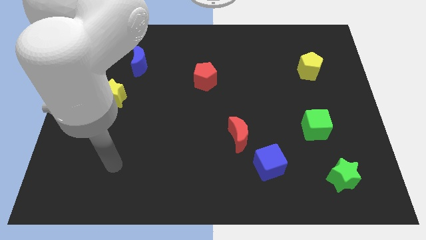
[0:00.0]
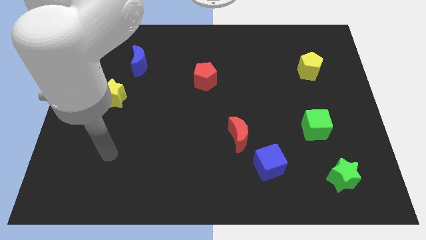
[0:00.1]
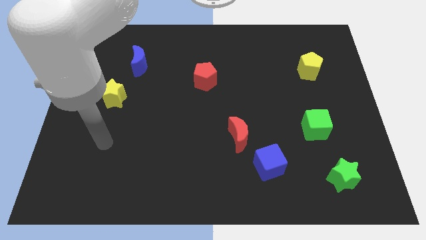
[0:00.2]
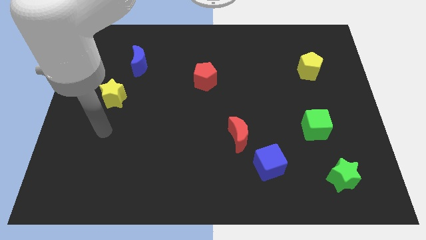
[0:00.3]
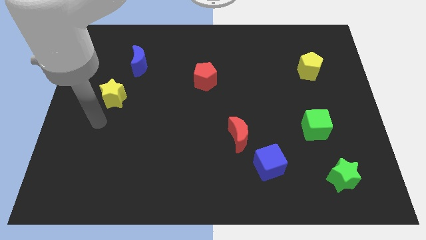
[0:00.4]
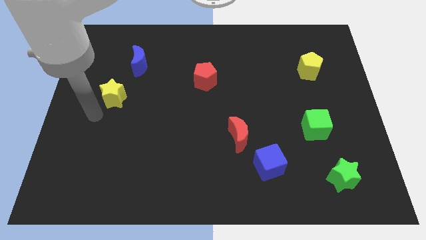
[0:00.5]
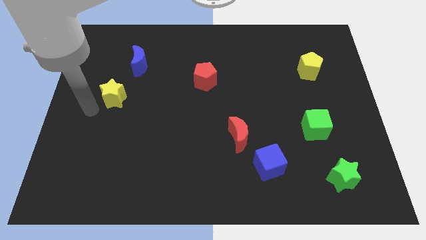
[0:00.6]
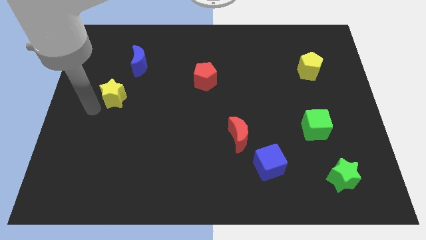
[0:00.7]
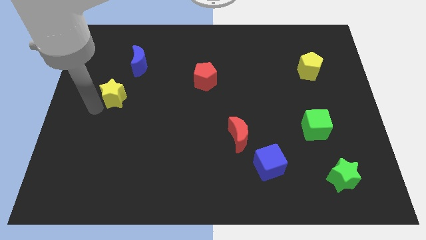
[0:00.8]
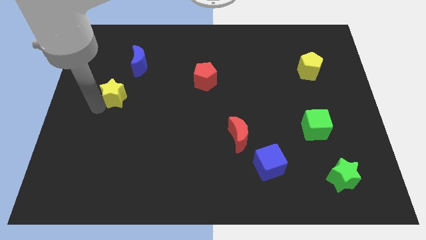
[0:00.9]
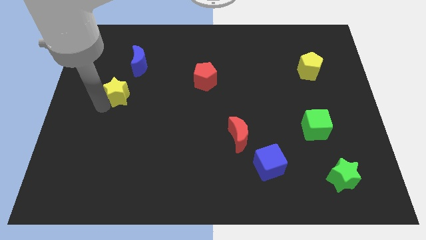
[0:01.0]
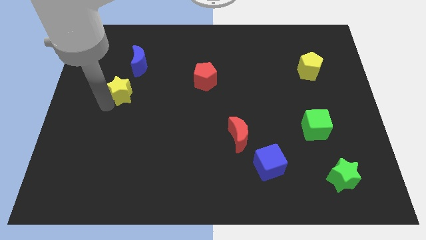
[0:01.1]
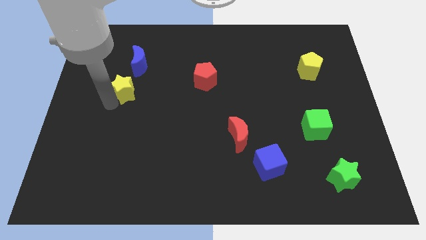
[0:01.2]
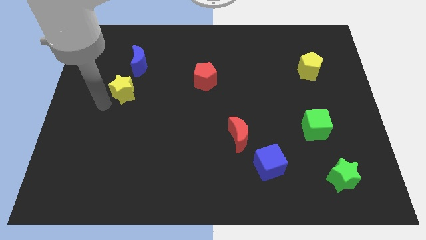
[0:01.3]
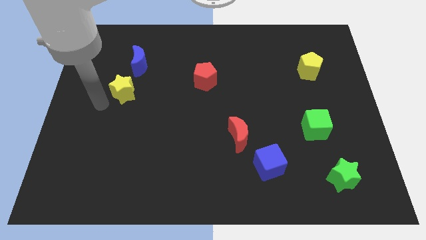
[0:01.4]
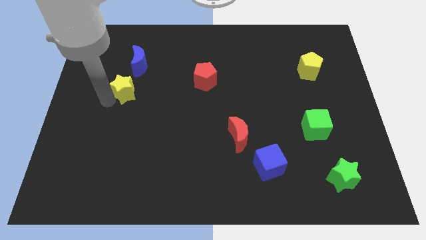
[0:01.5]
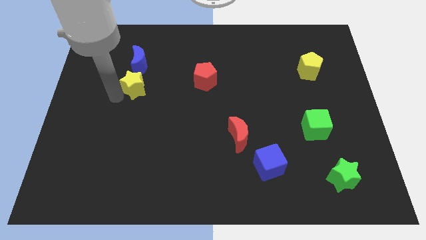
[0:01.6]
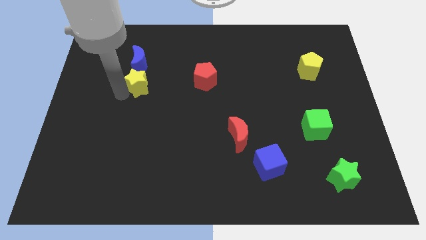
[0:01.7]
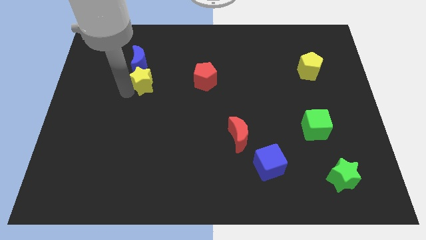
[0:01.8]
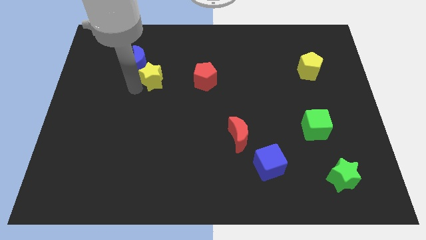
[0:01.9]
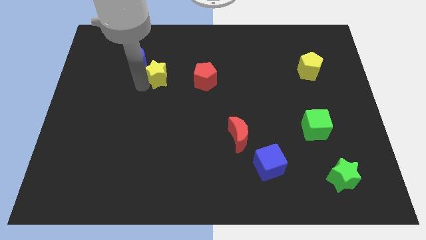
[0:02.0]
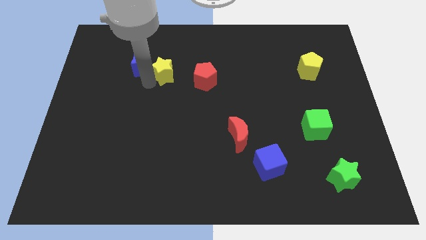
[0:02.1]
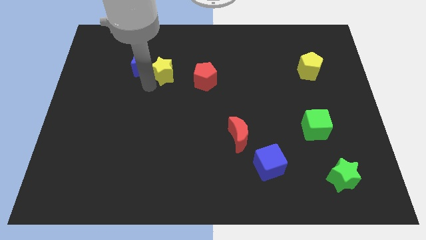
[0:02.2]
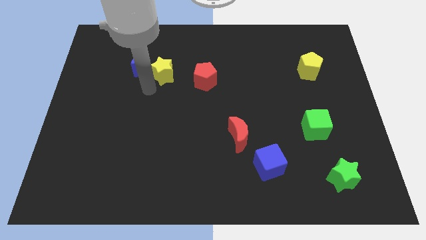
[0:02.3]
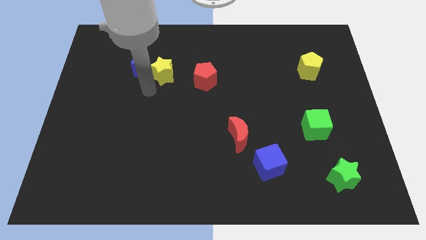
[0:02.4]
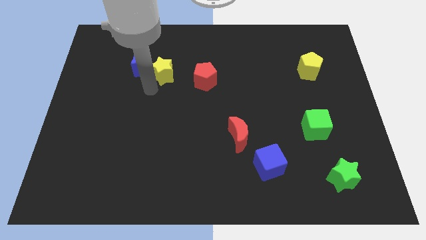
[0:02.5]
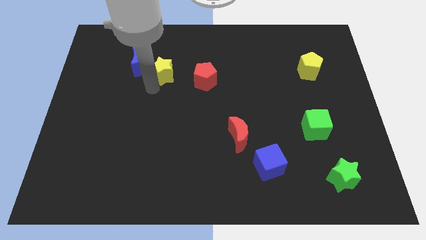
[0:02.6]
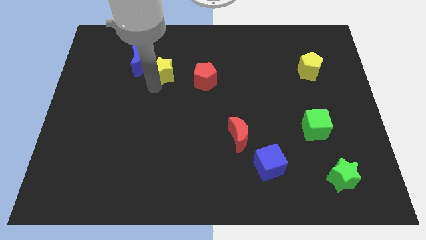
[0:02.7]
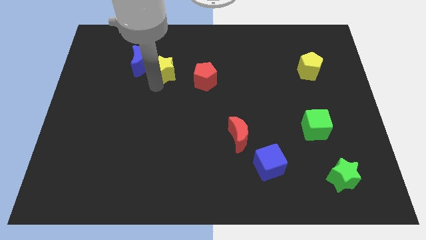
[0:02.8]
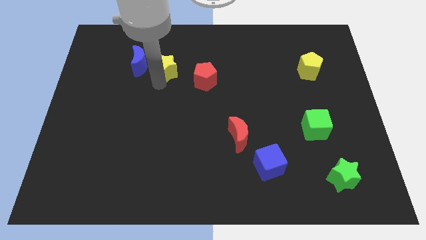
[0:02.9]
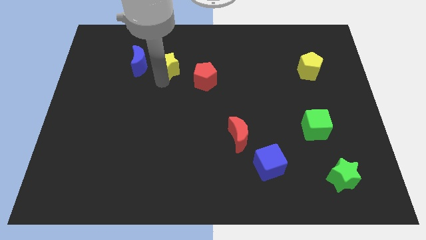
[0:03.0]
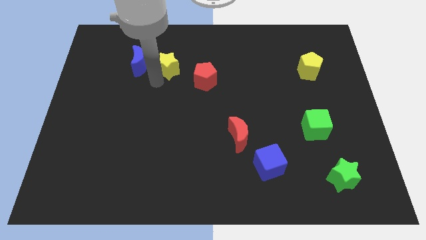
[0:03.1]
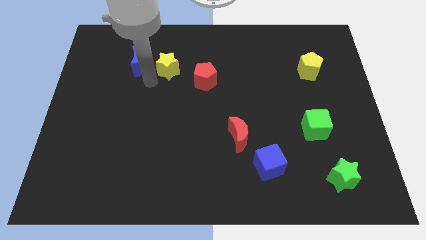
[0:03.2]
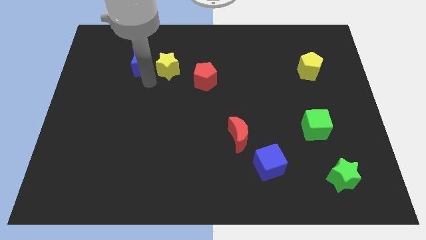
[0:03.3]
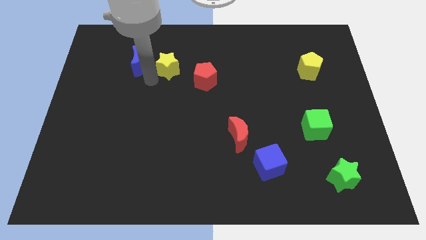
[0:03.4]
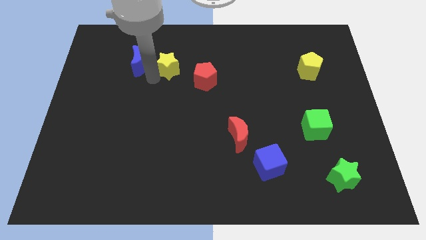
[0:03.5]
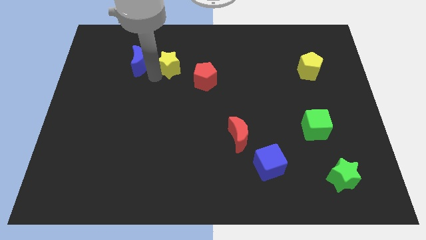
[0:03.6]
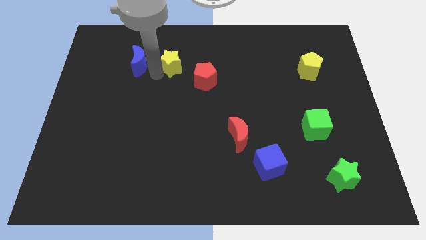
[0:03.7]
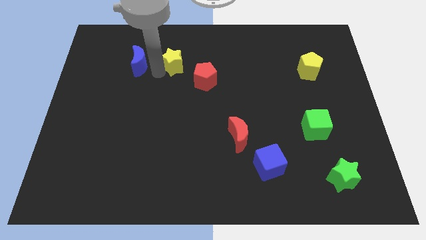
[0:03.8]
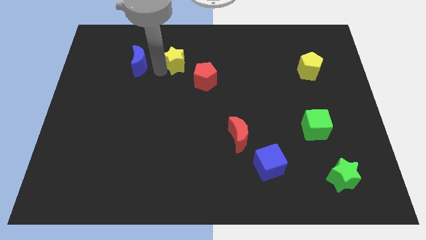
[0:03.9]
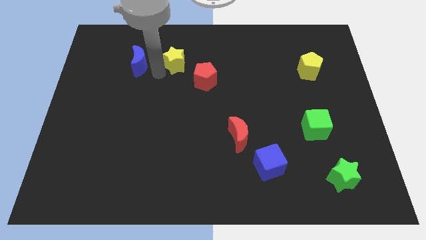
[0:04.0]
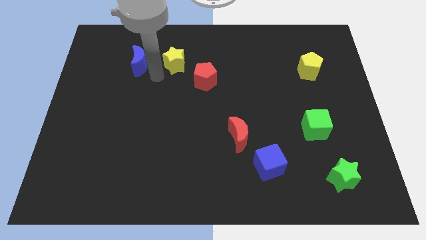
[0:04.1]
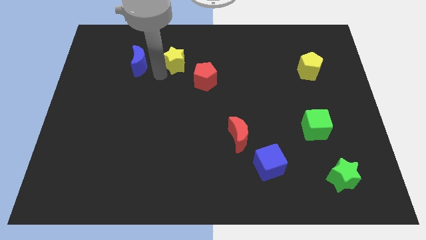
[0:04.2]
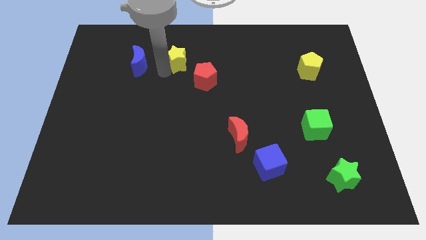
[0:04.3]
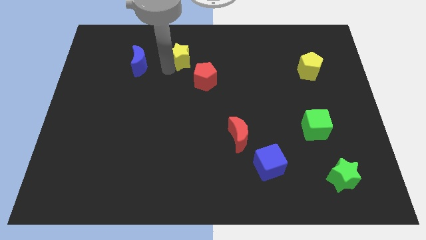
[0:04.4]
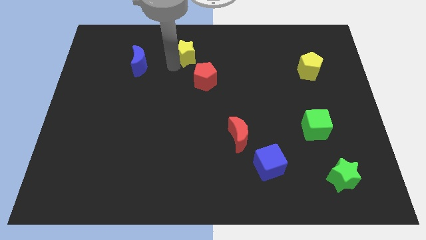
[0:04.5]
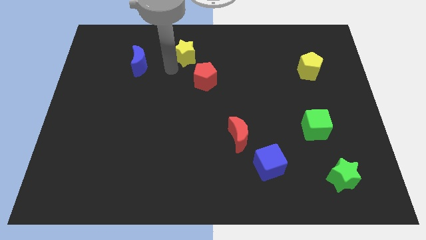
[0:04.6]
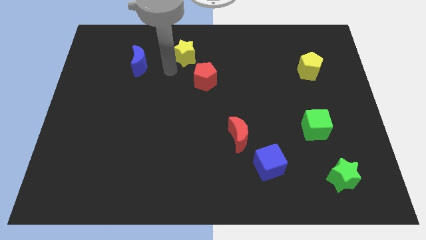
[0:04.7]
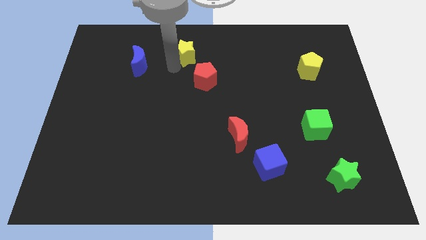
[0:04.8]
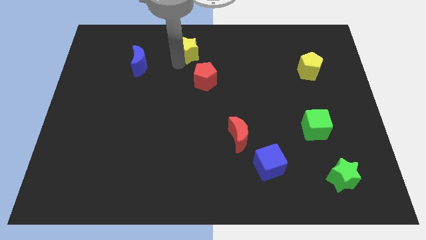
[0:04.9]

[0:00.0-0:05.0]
push the yellow star to the towards your base
